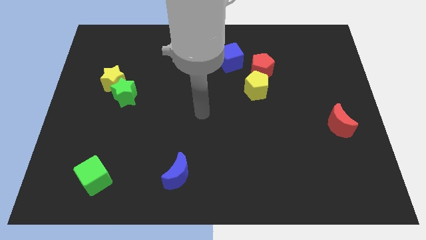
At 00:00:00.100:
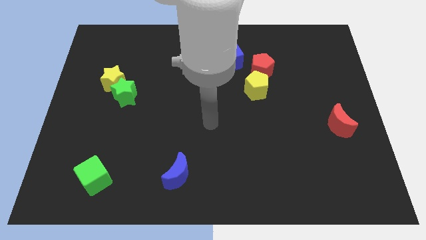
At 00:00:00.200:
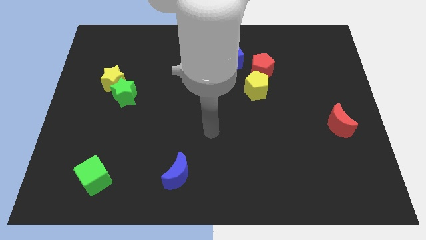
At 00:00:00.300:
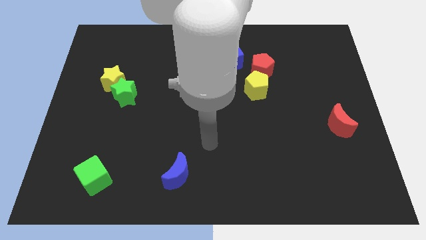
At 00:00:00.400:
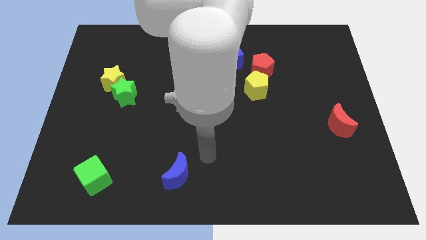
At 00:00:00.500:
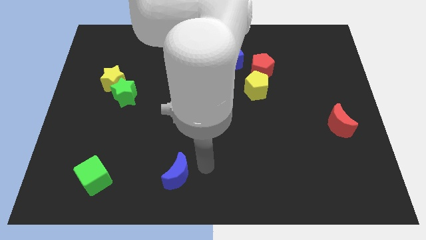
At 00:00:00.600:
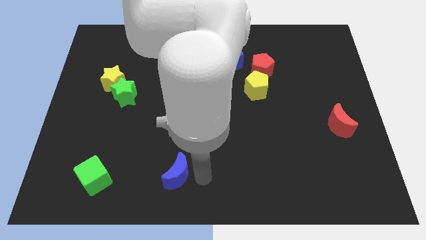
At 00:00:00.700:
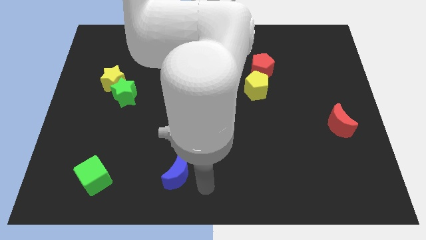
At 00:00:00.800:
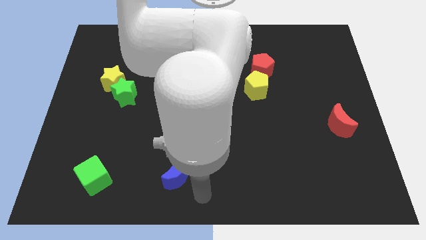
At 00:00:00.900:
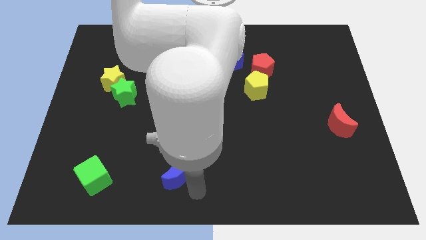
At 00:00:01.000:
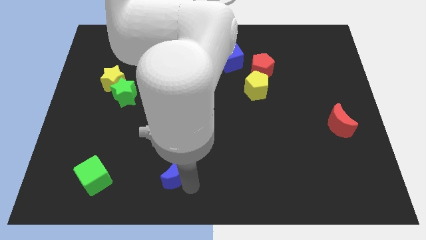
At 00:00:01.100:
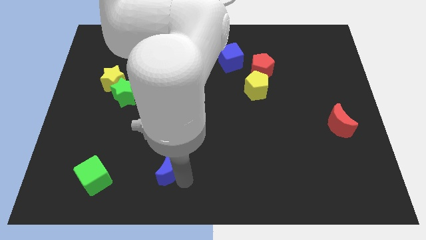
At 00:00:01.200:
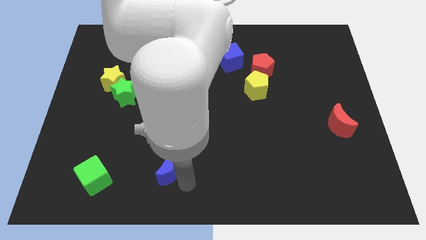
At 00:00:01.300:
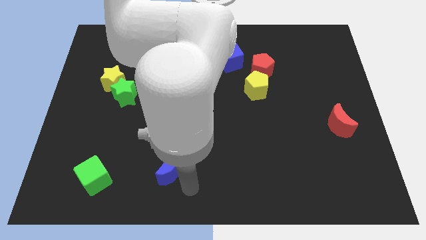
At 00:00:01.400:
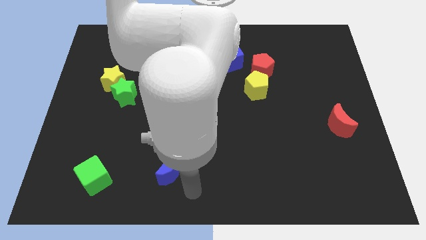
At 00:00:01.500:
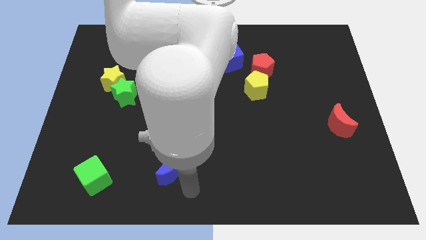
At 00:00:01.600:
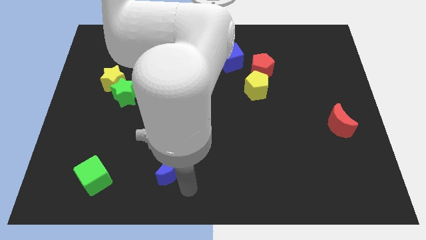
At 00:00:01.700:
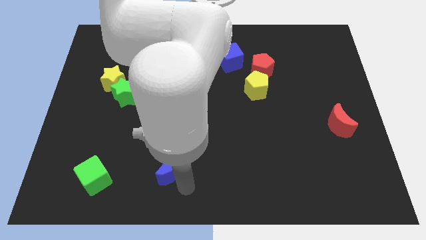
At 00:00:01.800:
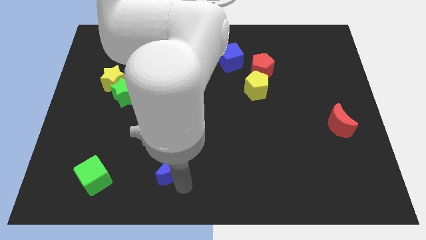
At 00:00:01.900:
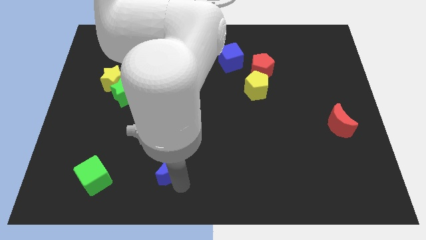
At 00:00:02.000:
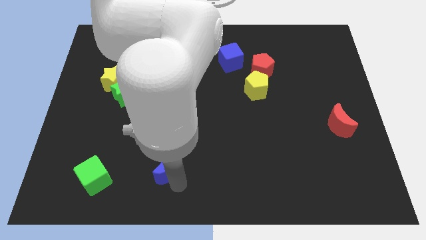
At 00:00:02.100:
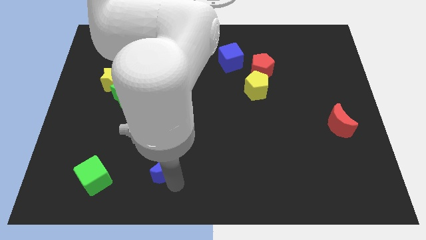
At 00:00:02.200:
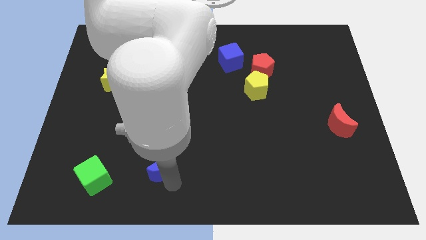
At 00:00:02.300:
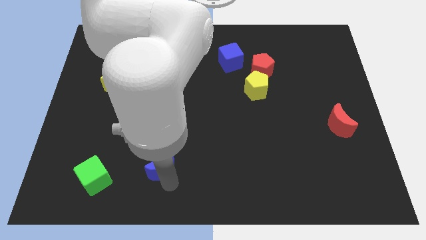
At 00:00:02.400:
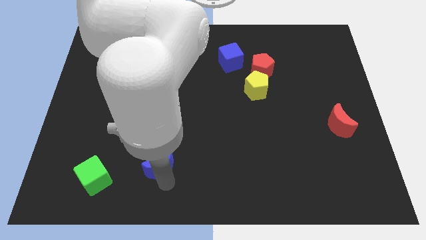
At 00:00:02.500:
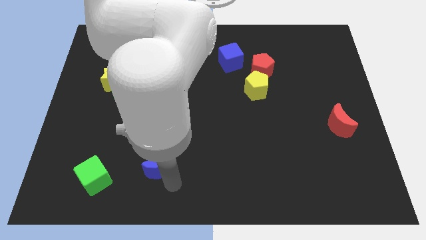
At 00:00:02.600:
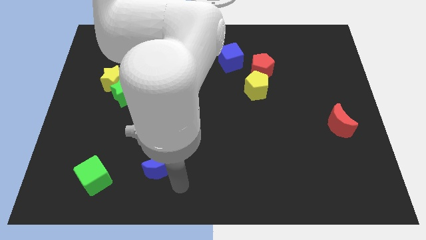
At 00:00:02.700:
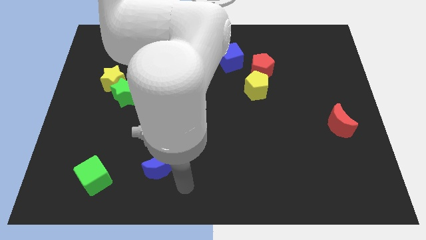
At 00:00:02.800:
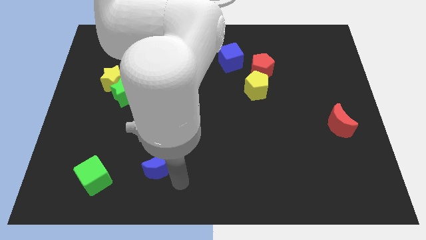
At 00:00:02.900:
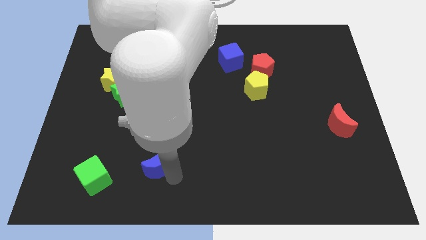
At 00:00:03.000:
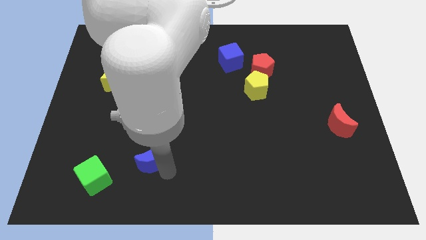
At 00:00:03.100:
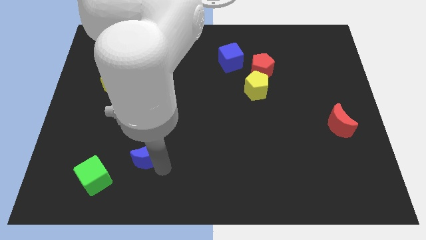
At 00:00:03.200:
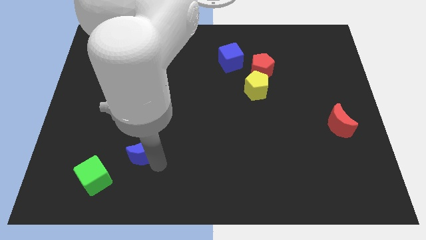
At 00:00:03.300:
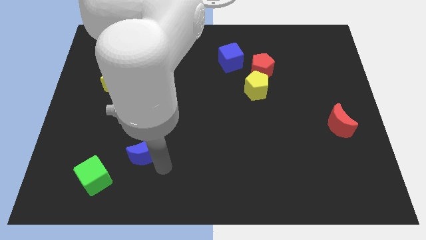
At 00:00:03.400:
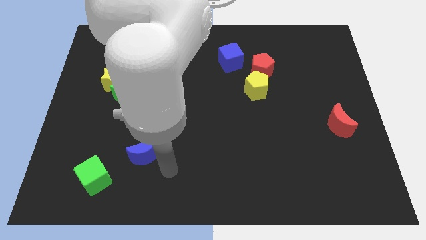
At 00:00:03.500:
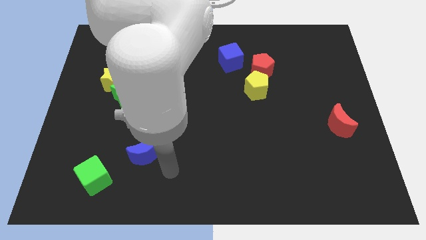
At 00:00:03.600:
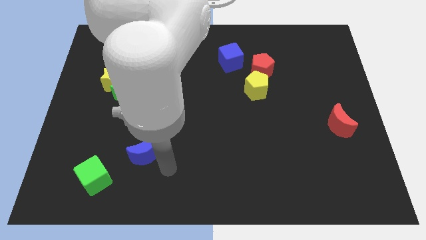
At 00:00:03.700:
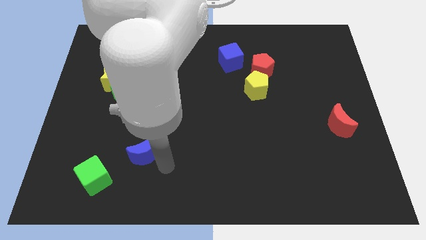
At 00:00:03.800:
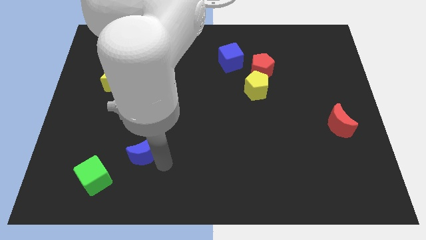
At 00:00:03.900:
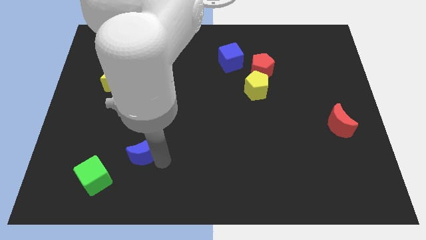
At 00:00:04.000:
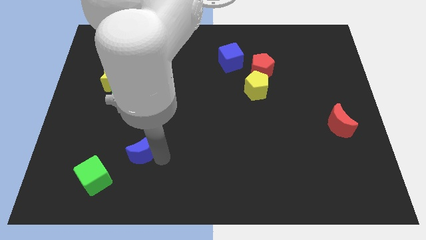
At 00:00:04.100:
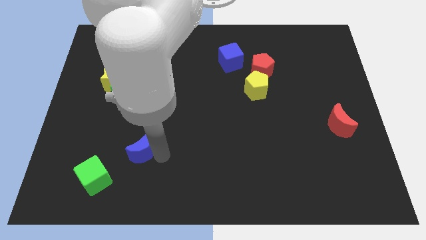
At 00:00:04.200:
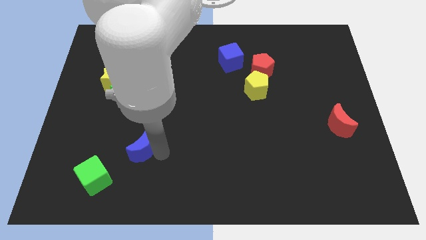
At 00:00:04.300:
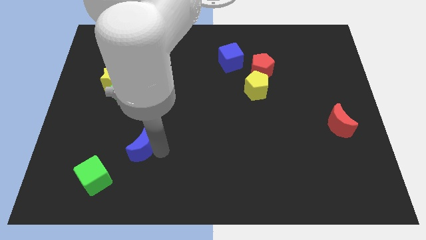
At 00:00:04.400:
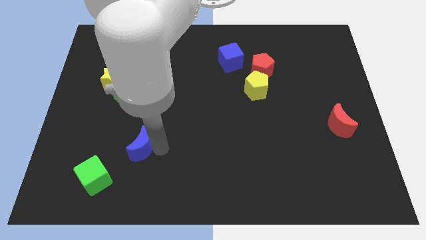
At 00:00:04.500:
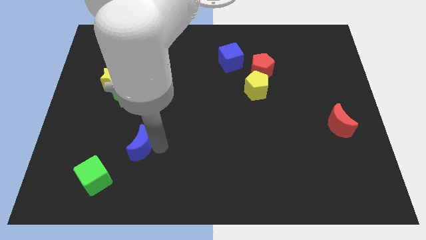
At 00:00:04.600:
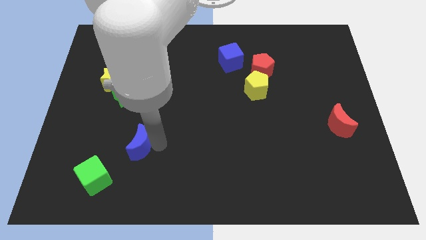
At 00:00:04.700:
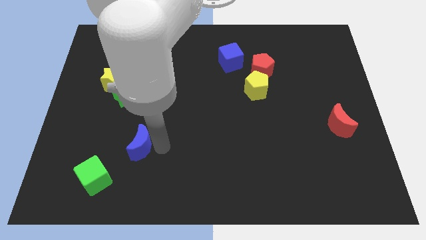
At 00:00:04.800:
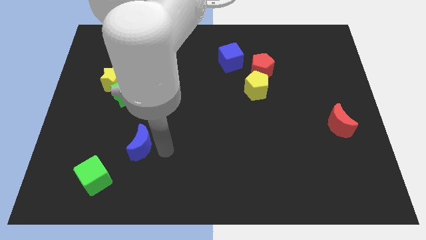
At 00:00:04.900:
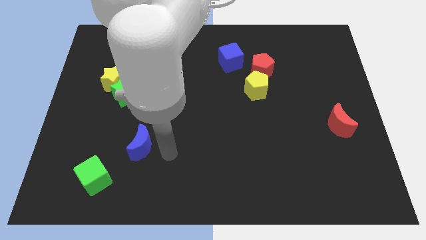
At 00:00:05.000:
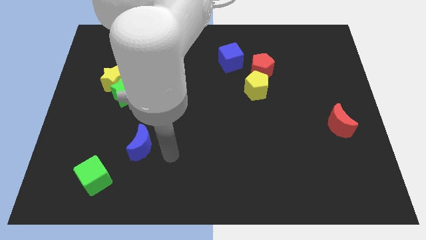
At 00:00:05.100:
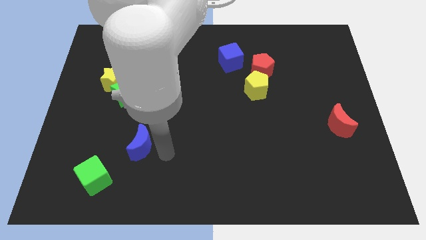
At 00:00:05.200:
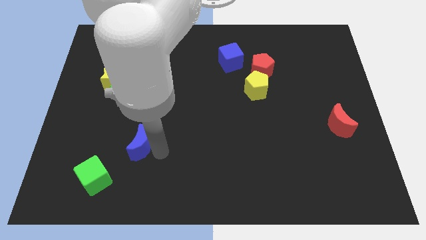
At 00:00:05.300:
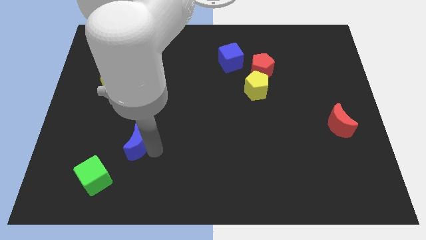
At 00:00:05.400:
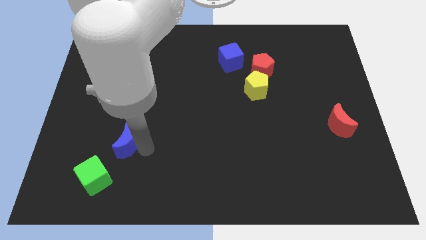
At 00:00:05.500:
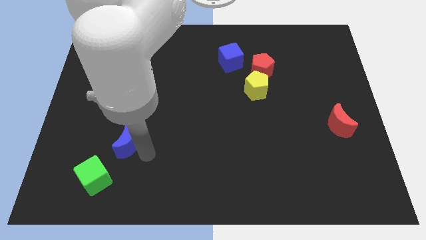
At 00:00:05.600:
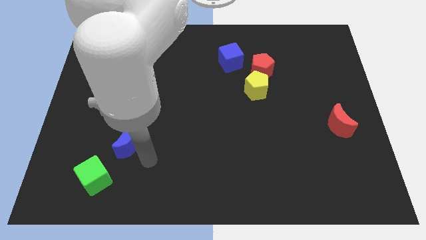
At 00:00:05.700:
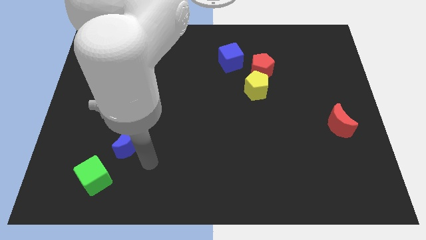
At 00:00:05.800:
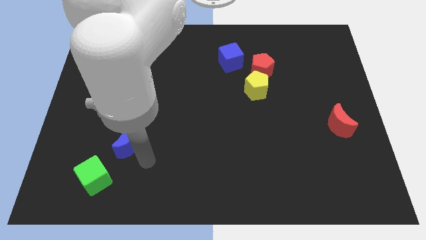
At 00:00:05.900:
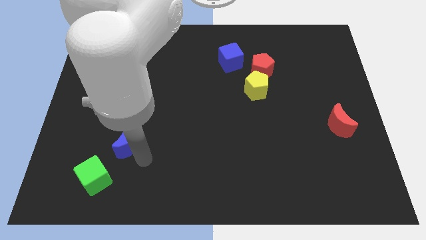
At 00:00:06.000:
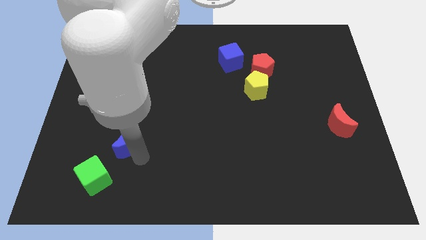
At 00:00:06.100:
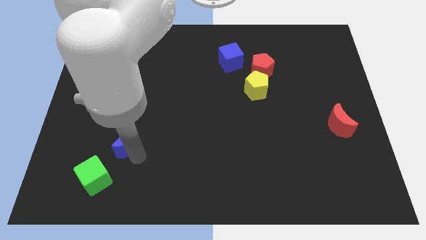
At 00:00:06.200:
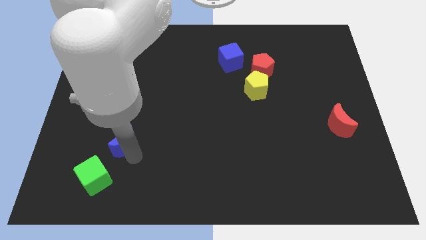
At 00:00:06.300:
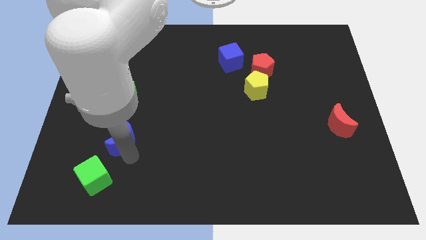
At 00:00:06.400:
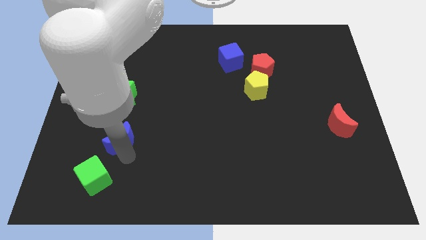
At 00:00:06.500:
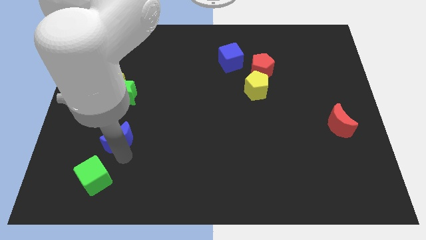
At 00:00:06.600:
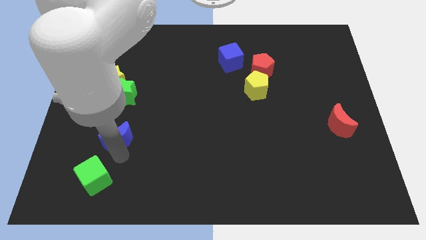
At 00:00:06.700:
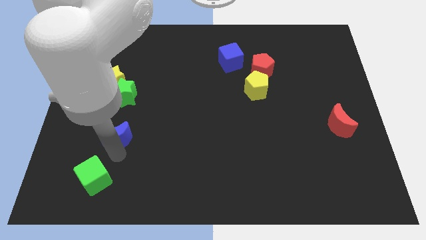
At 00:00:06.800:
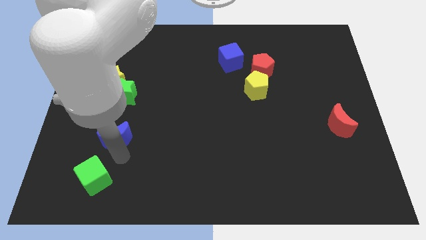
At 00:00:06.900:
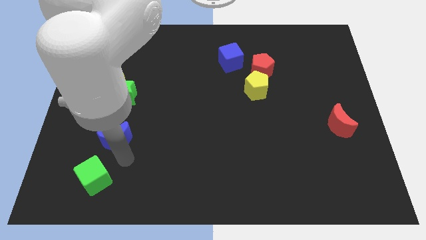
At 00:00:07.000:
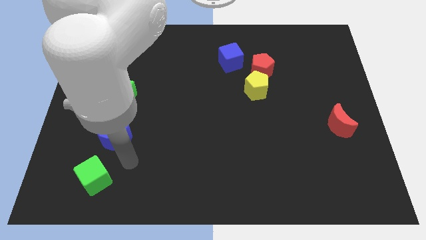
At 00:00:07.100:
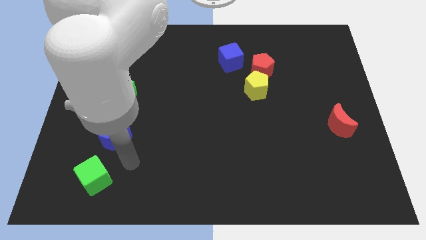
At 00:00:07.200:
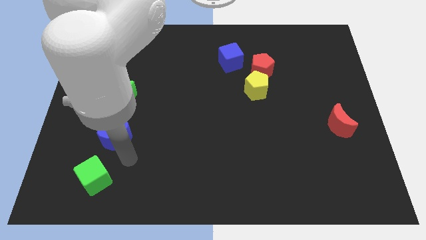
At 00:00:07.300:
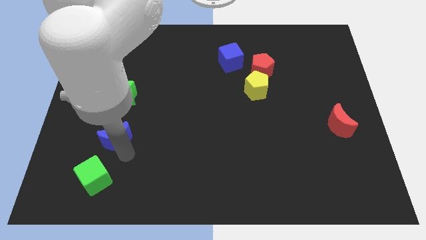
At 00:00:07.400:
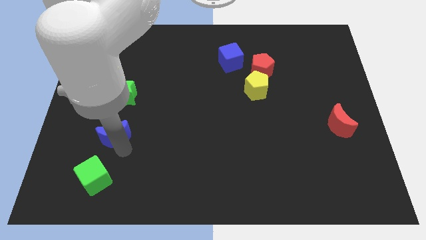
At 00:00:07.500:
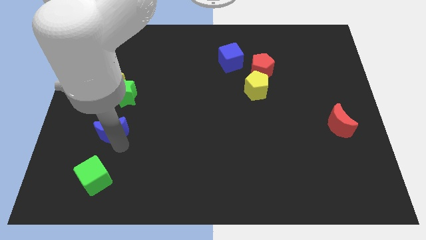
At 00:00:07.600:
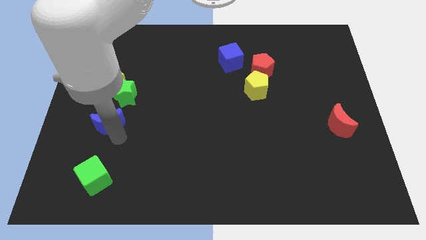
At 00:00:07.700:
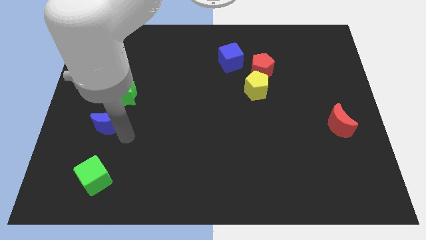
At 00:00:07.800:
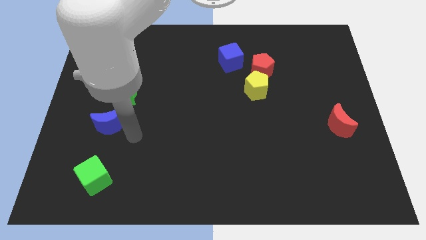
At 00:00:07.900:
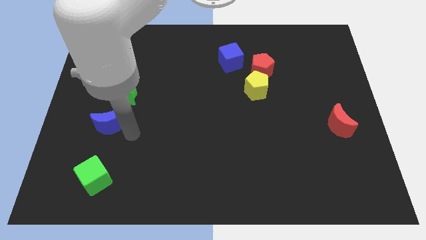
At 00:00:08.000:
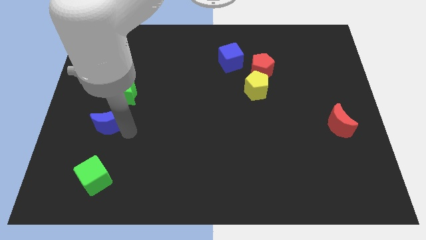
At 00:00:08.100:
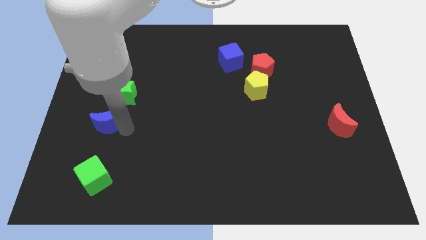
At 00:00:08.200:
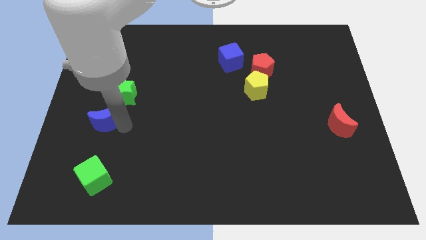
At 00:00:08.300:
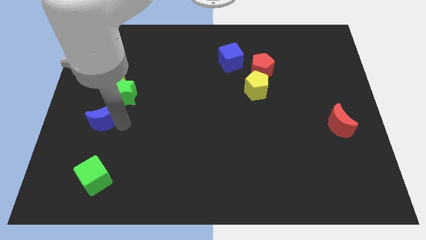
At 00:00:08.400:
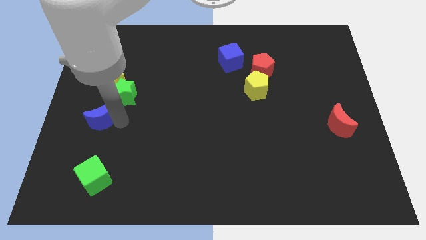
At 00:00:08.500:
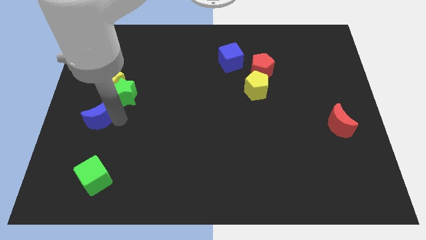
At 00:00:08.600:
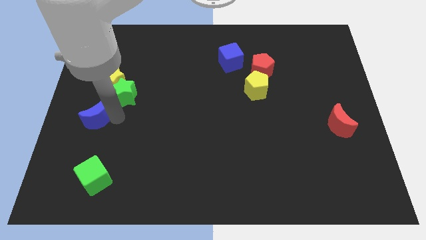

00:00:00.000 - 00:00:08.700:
put the blue moon to the left side
